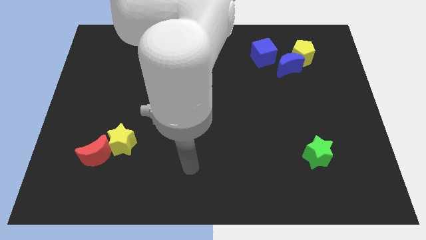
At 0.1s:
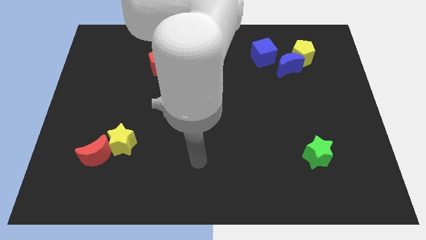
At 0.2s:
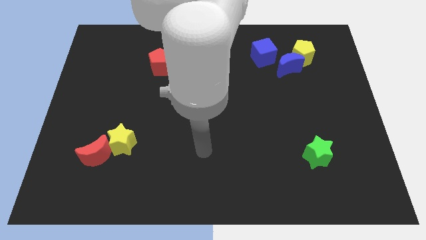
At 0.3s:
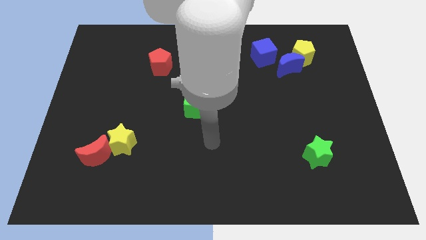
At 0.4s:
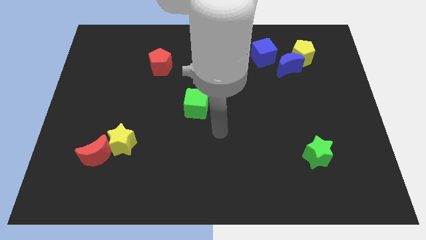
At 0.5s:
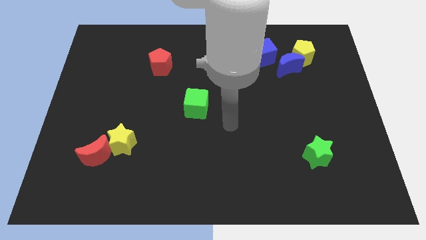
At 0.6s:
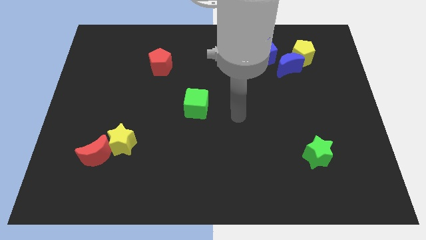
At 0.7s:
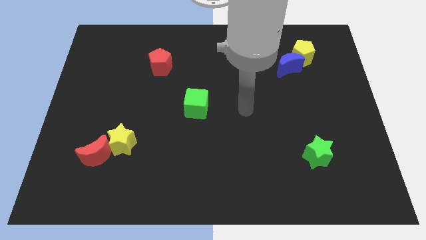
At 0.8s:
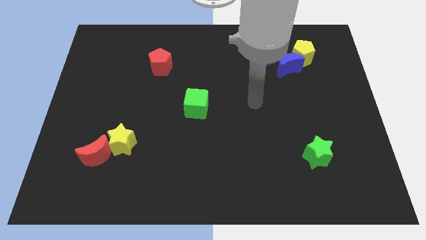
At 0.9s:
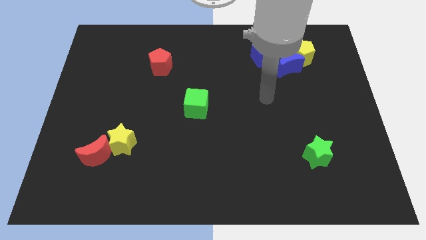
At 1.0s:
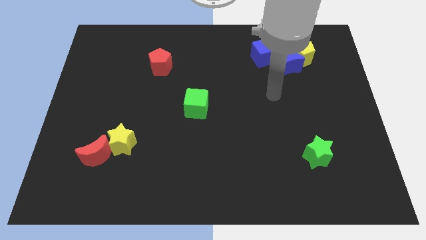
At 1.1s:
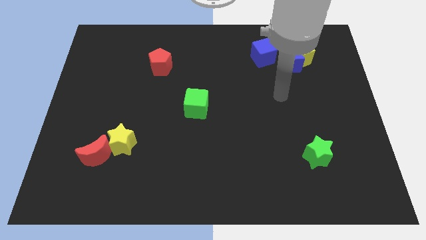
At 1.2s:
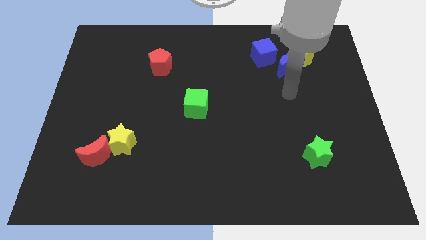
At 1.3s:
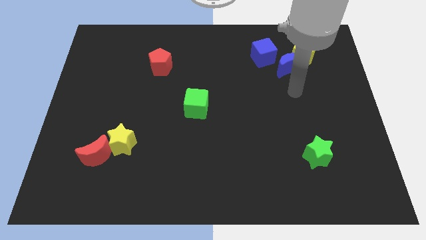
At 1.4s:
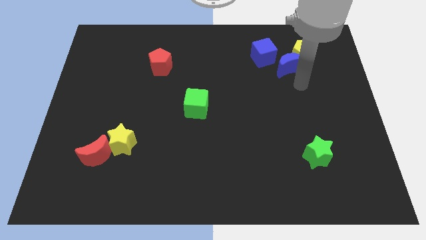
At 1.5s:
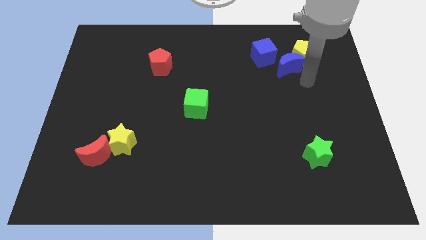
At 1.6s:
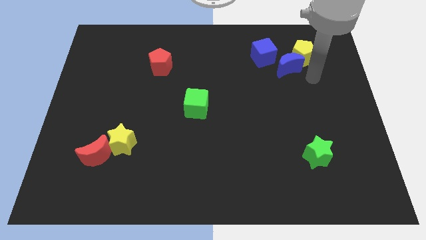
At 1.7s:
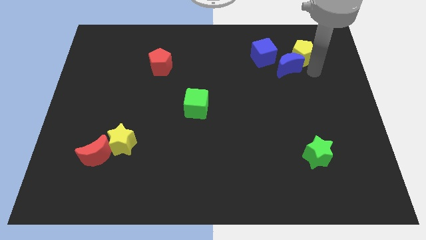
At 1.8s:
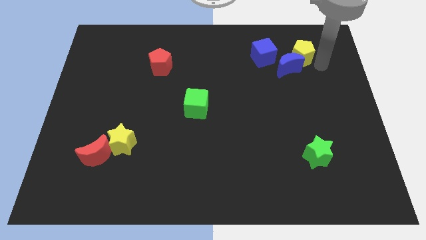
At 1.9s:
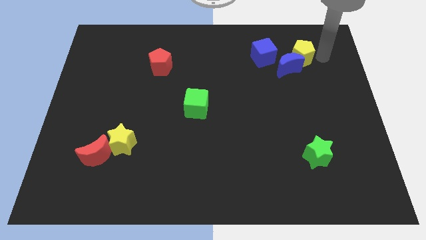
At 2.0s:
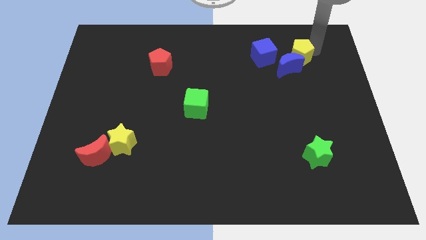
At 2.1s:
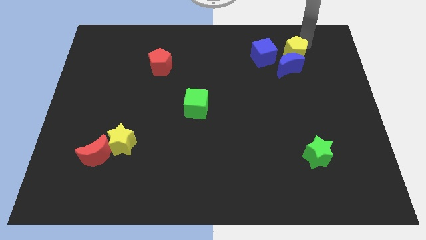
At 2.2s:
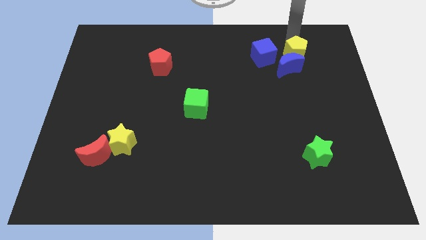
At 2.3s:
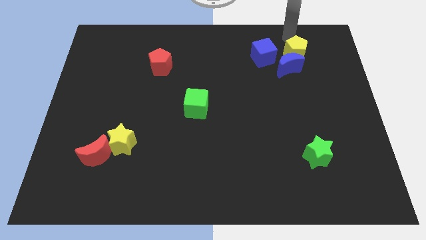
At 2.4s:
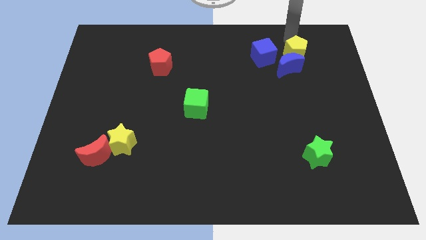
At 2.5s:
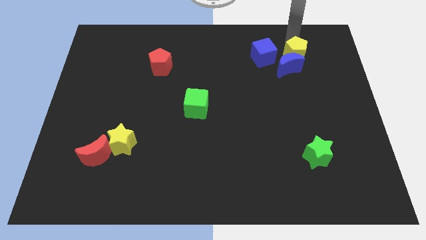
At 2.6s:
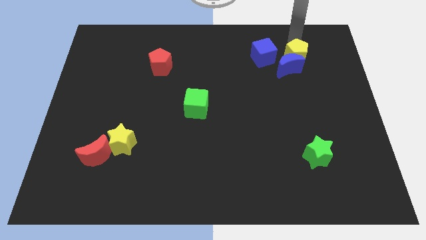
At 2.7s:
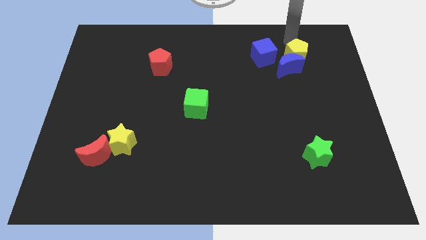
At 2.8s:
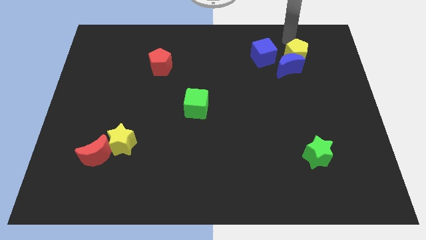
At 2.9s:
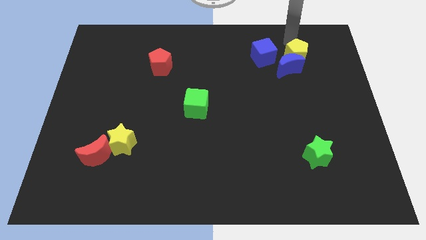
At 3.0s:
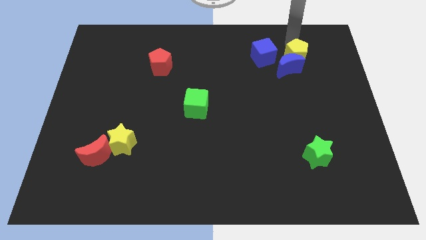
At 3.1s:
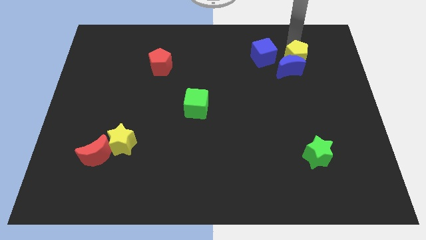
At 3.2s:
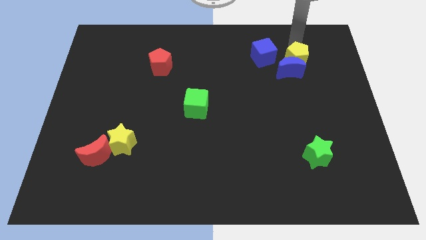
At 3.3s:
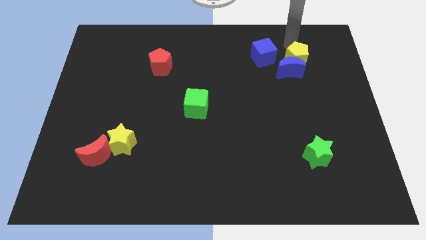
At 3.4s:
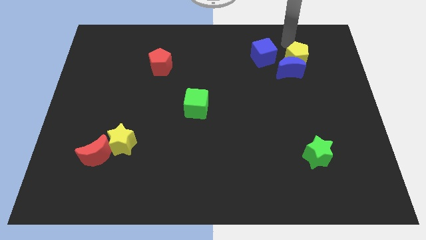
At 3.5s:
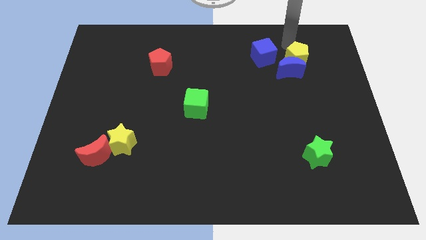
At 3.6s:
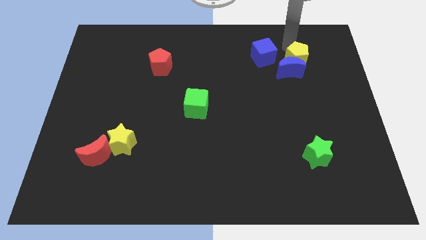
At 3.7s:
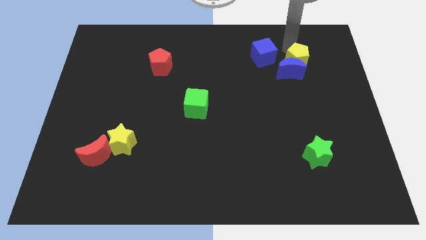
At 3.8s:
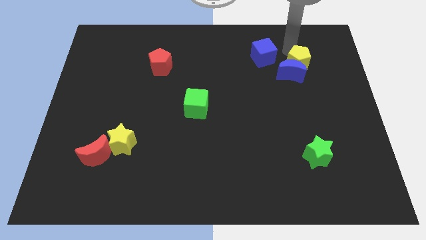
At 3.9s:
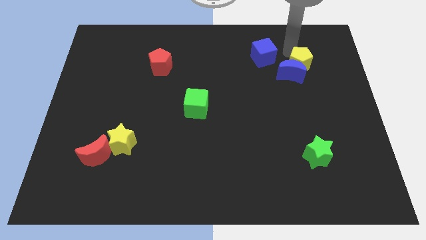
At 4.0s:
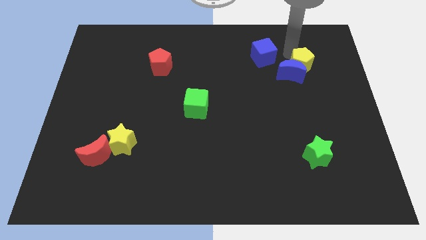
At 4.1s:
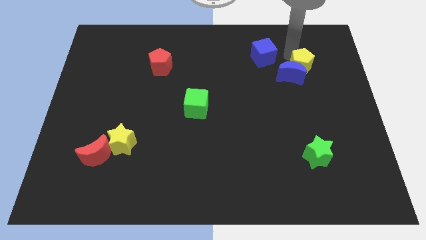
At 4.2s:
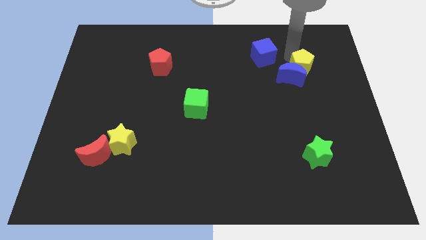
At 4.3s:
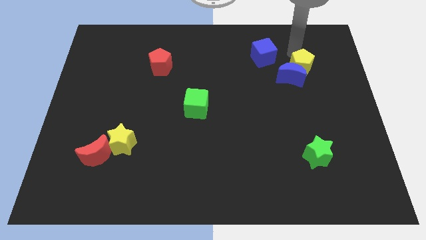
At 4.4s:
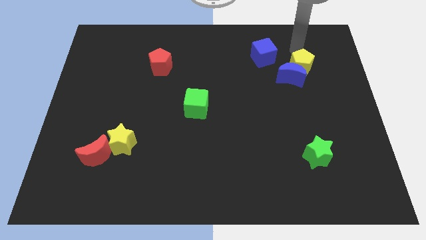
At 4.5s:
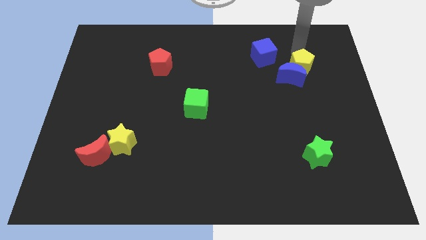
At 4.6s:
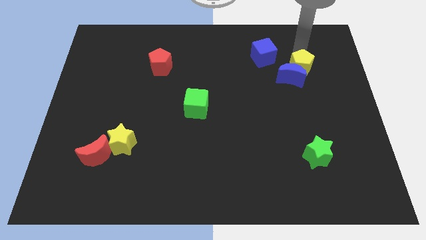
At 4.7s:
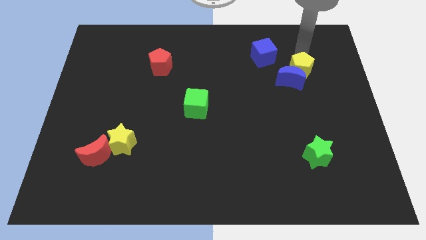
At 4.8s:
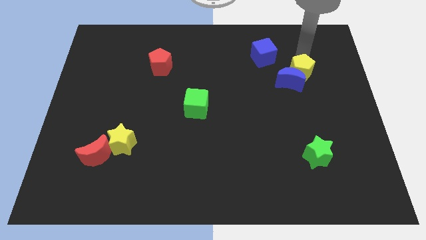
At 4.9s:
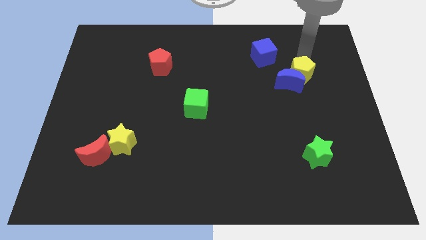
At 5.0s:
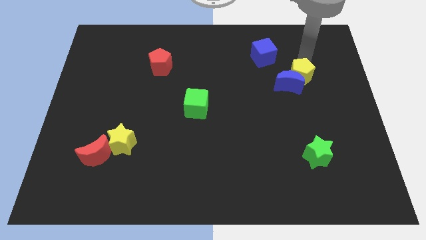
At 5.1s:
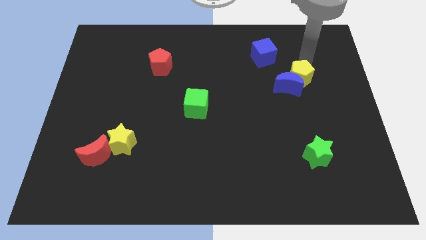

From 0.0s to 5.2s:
push the yellow pentagon downwards a bit

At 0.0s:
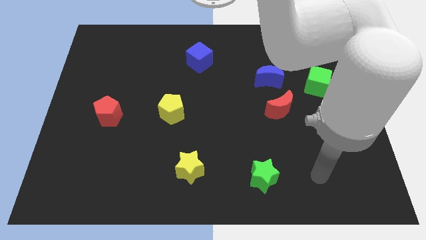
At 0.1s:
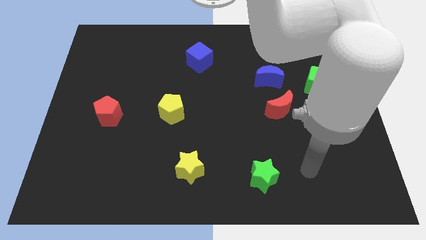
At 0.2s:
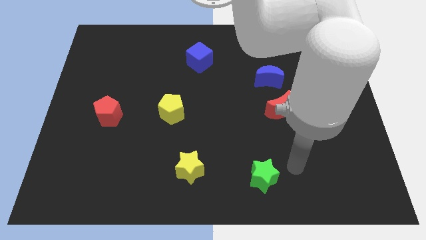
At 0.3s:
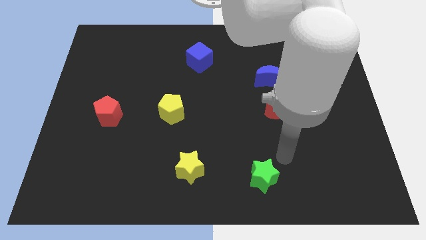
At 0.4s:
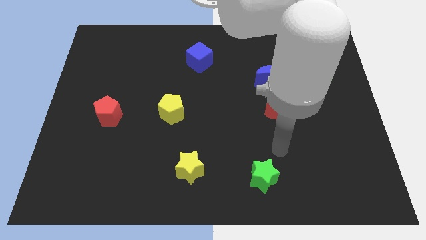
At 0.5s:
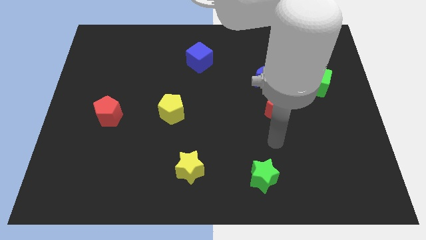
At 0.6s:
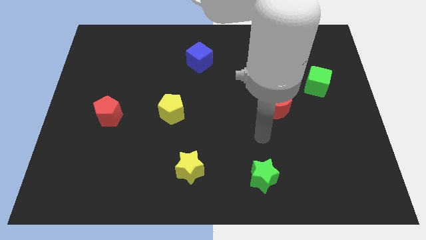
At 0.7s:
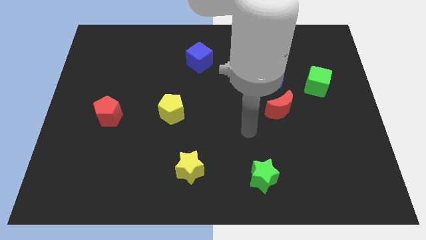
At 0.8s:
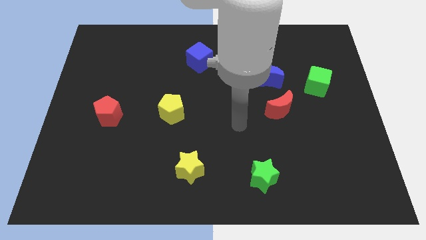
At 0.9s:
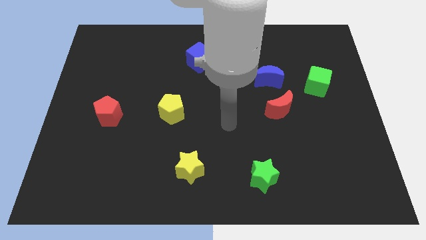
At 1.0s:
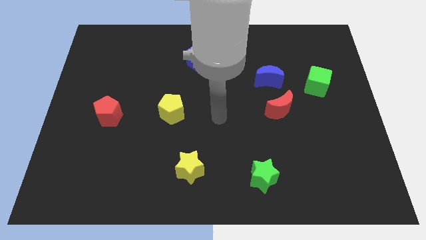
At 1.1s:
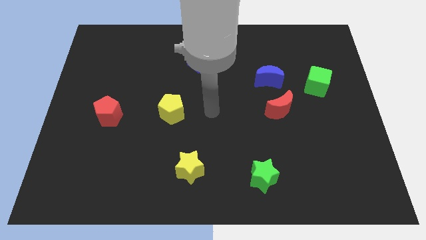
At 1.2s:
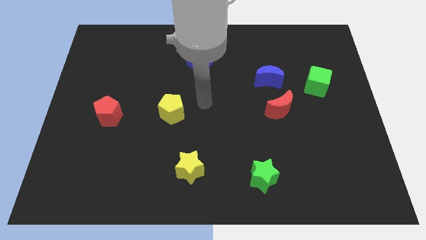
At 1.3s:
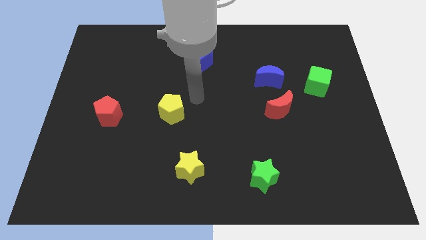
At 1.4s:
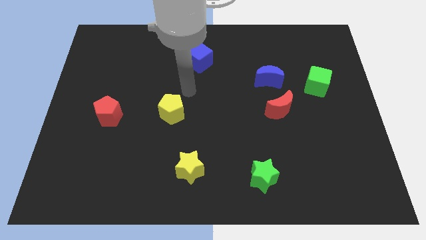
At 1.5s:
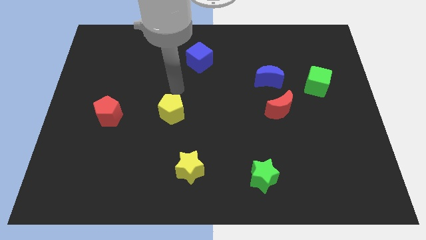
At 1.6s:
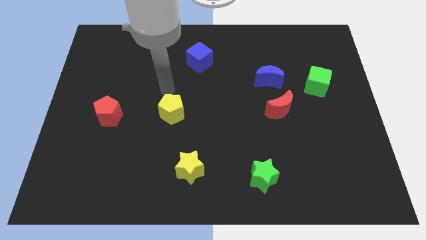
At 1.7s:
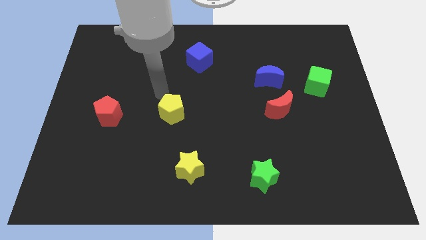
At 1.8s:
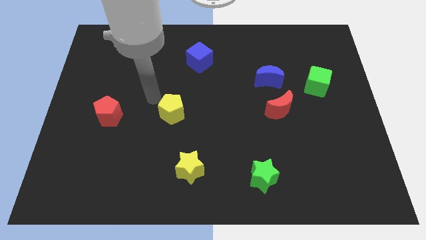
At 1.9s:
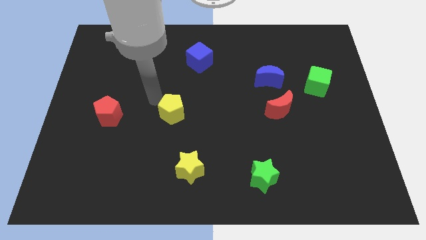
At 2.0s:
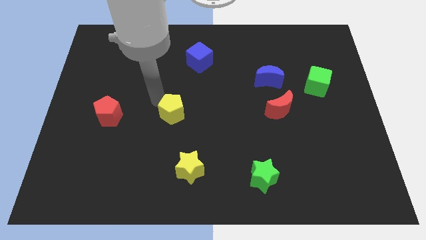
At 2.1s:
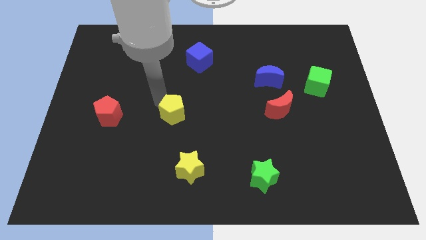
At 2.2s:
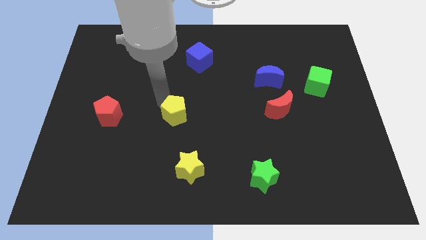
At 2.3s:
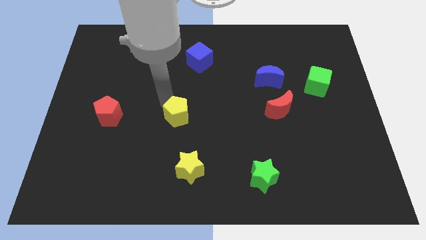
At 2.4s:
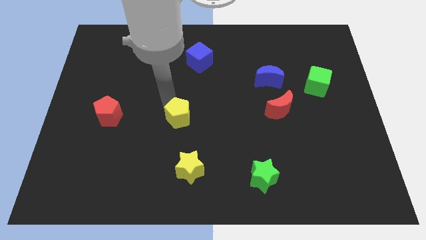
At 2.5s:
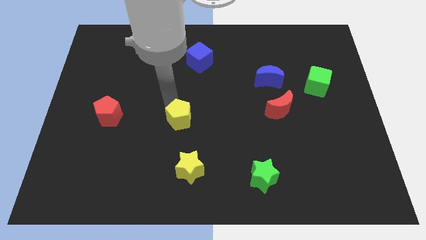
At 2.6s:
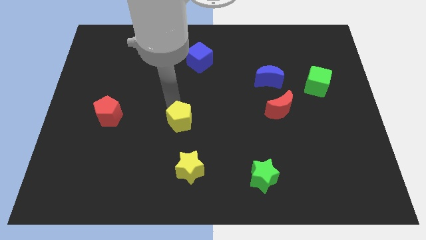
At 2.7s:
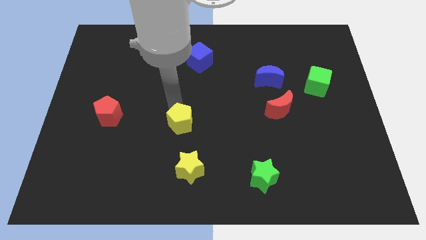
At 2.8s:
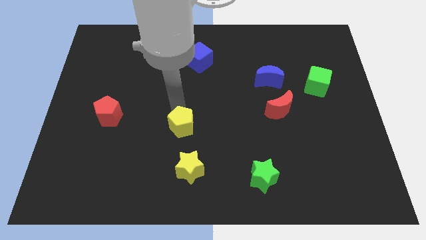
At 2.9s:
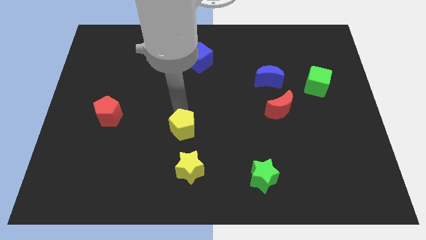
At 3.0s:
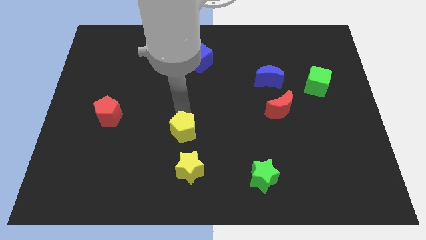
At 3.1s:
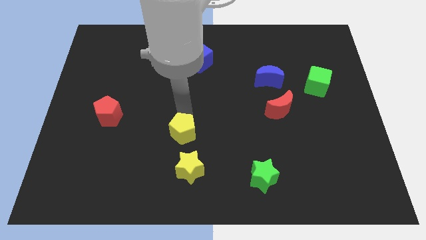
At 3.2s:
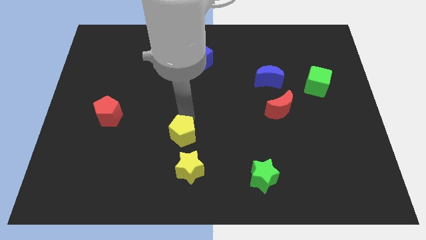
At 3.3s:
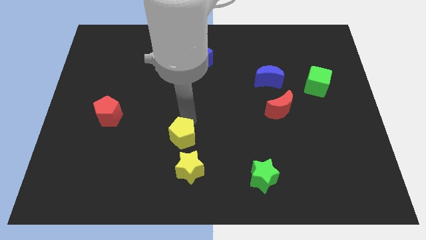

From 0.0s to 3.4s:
slightly move the yellow pentagon downwards and to the right diagonally
